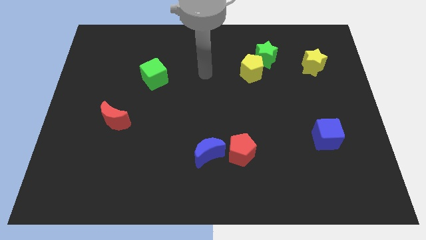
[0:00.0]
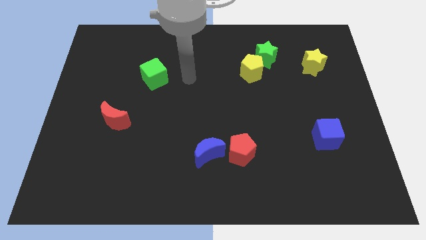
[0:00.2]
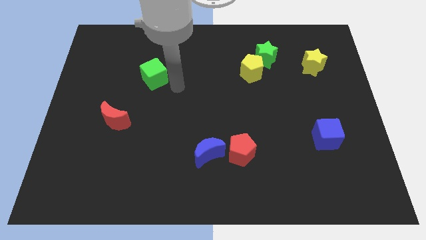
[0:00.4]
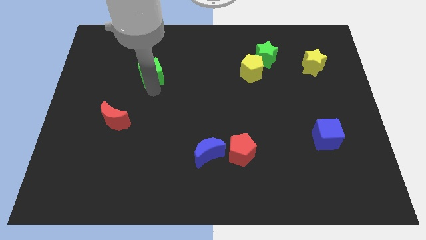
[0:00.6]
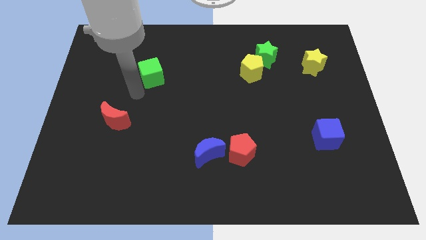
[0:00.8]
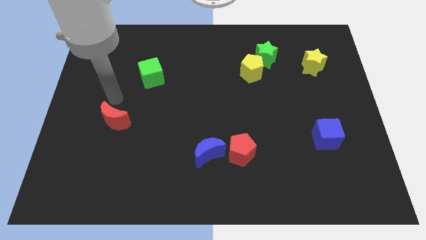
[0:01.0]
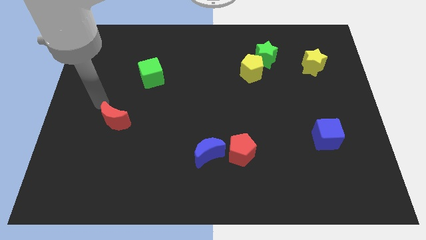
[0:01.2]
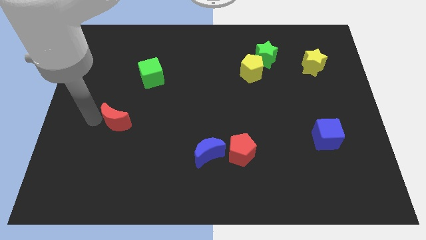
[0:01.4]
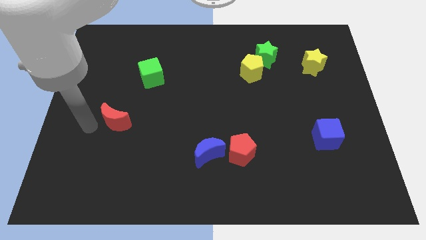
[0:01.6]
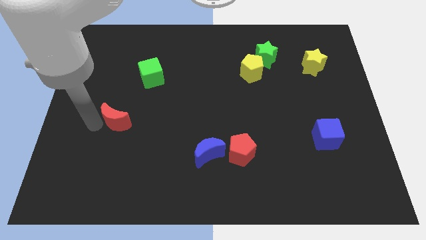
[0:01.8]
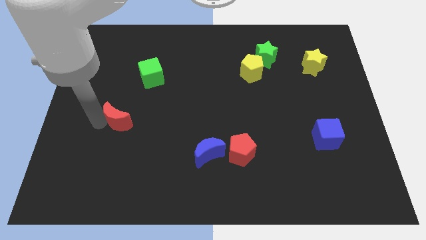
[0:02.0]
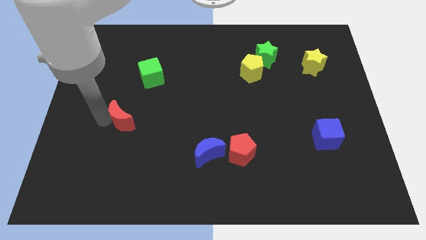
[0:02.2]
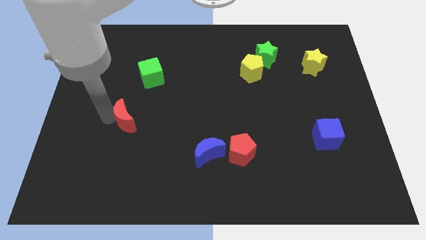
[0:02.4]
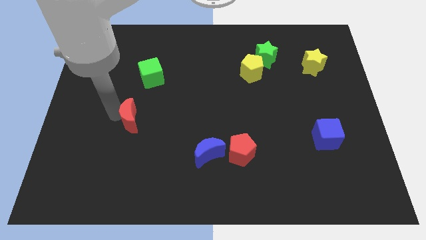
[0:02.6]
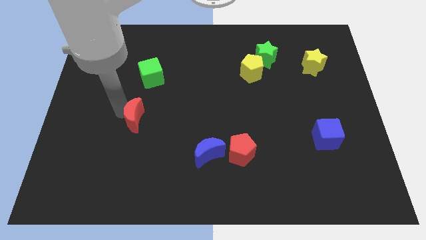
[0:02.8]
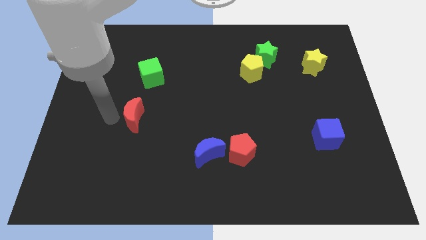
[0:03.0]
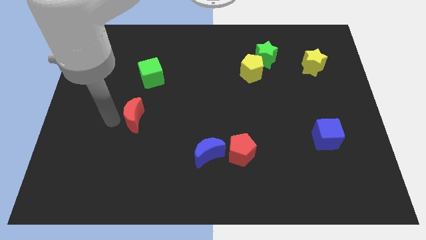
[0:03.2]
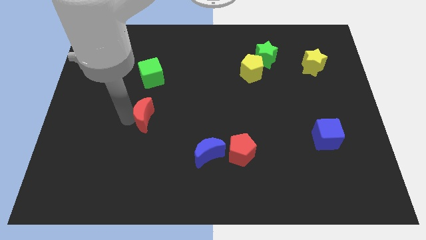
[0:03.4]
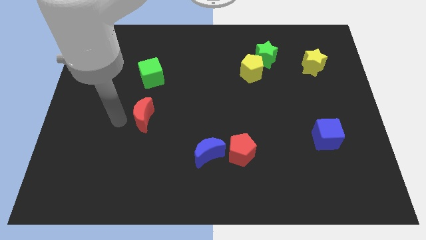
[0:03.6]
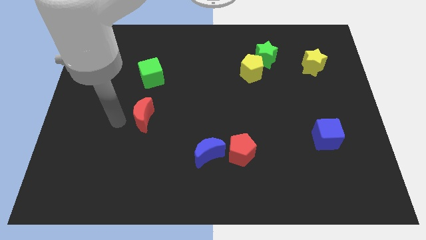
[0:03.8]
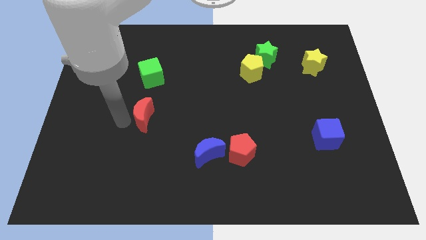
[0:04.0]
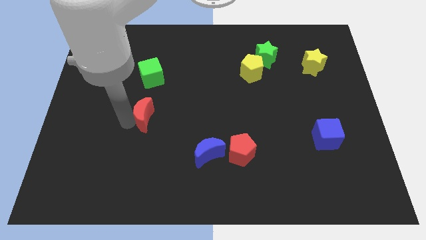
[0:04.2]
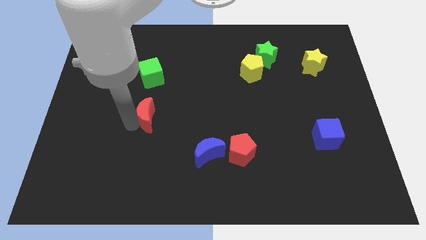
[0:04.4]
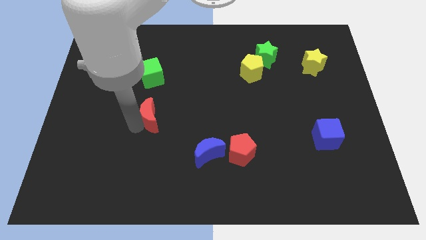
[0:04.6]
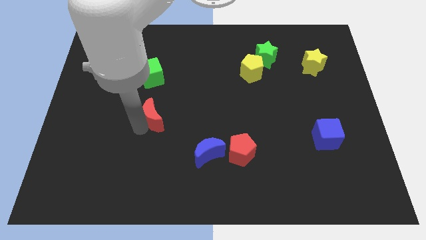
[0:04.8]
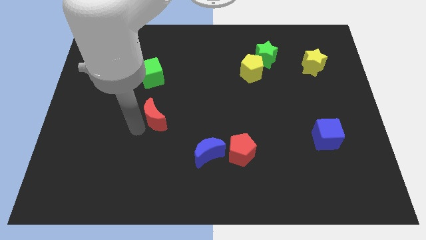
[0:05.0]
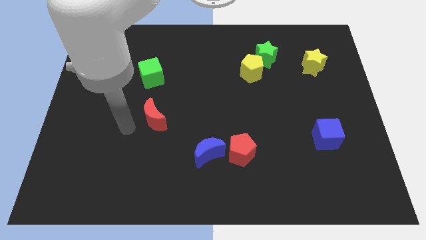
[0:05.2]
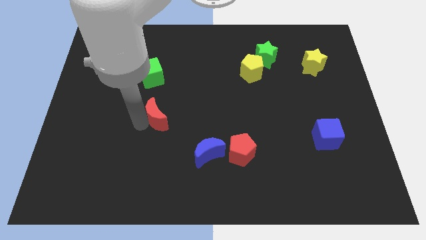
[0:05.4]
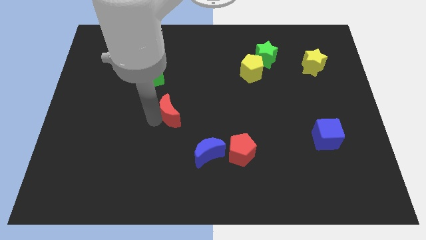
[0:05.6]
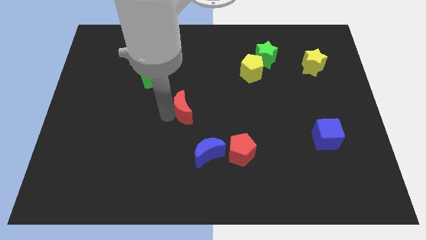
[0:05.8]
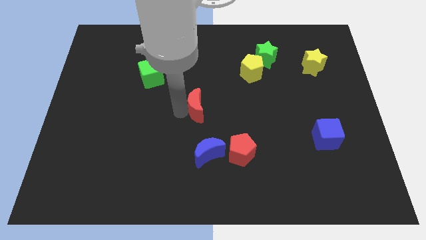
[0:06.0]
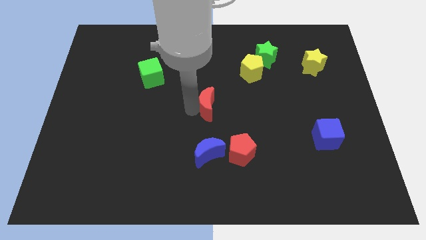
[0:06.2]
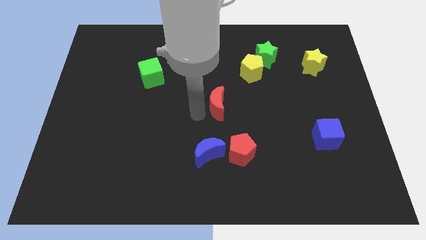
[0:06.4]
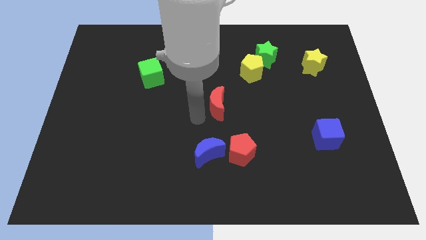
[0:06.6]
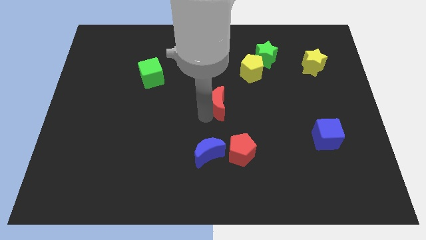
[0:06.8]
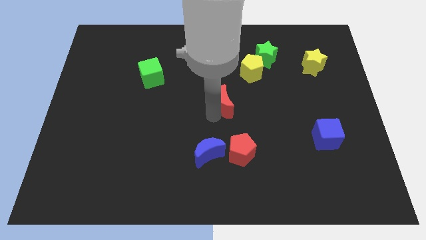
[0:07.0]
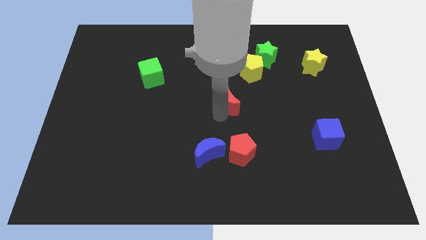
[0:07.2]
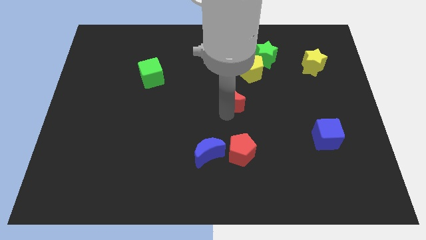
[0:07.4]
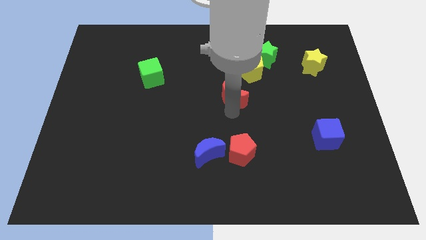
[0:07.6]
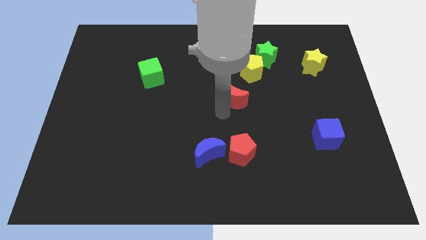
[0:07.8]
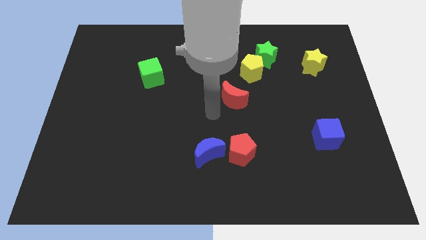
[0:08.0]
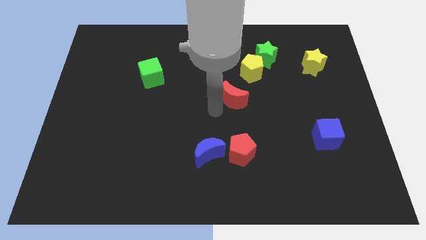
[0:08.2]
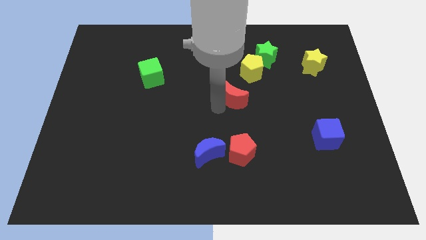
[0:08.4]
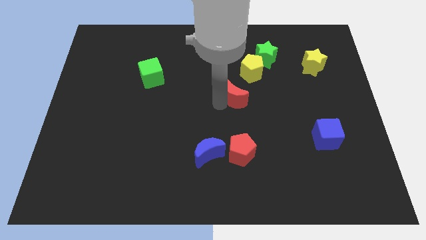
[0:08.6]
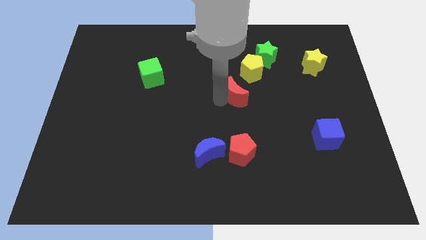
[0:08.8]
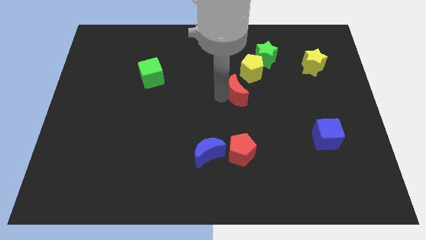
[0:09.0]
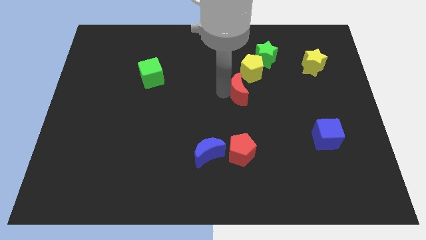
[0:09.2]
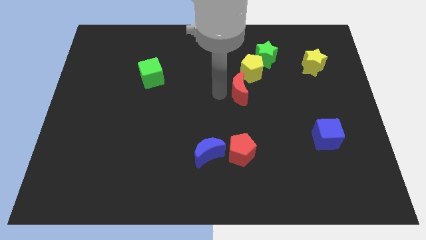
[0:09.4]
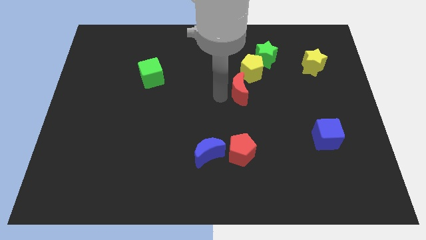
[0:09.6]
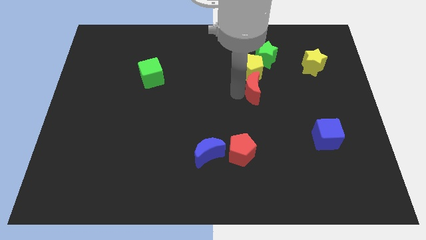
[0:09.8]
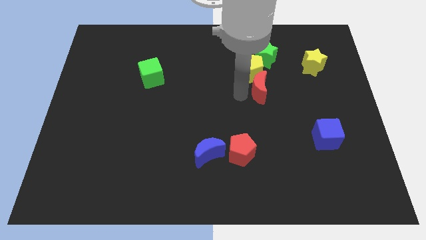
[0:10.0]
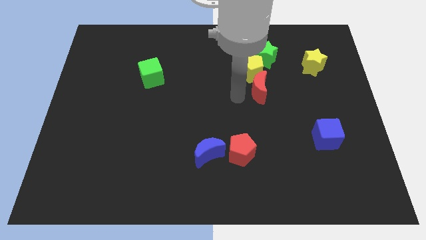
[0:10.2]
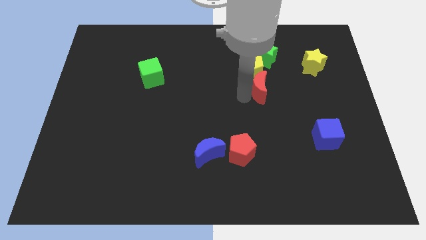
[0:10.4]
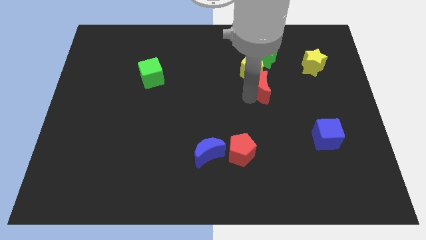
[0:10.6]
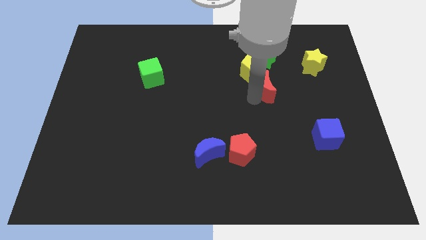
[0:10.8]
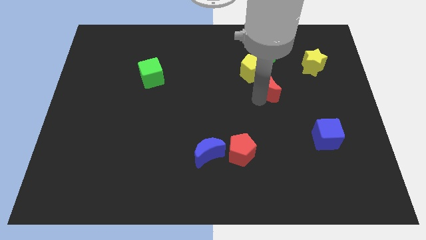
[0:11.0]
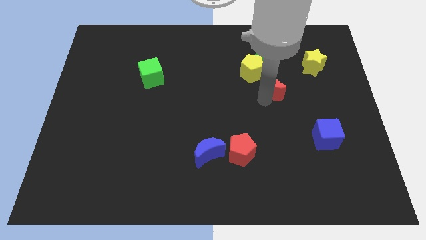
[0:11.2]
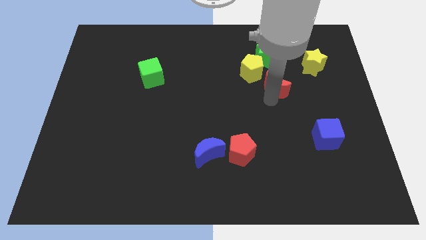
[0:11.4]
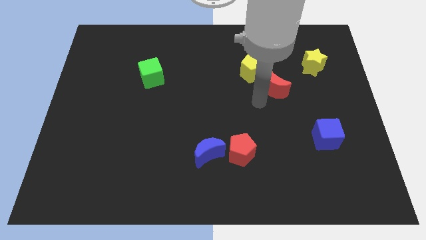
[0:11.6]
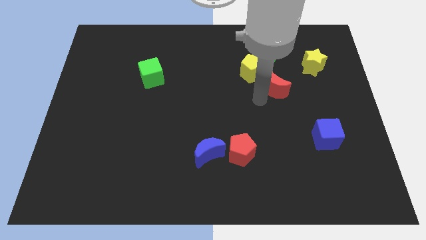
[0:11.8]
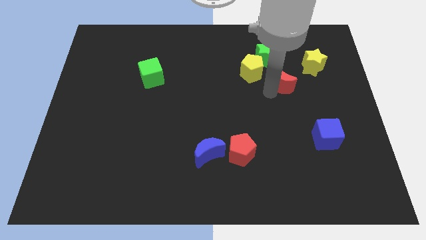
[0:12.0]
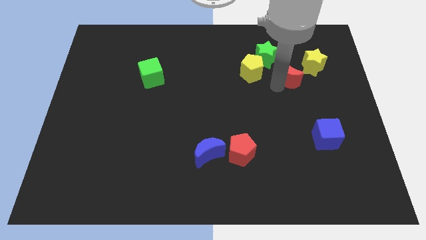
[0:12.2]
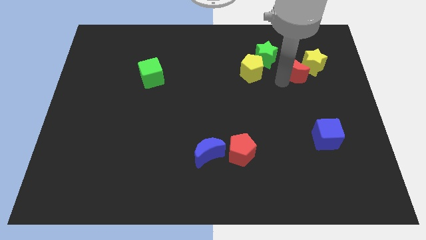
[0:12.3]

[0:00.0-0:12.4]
move the red moon next to the yellow star
